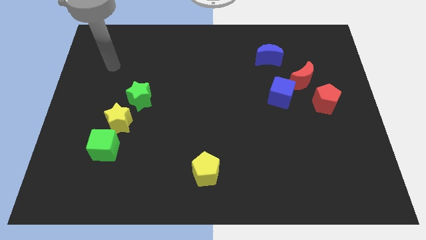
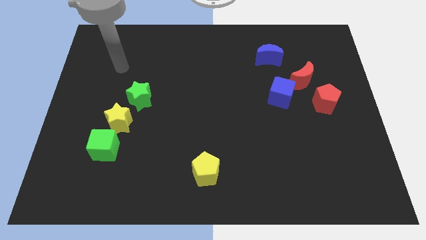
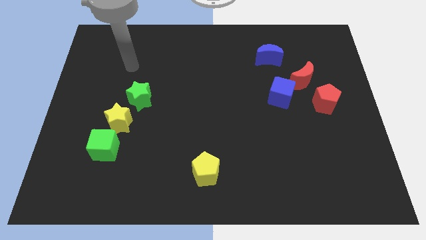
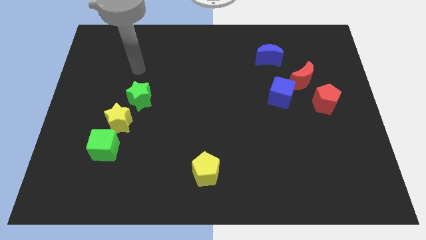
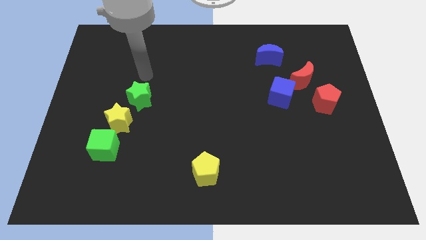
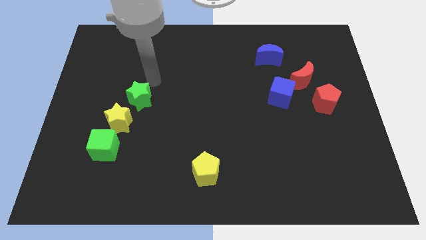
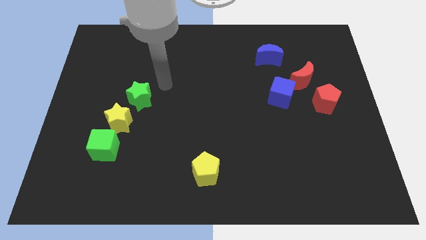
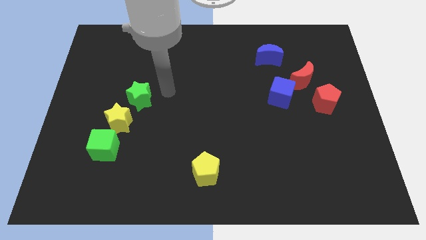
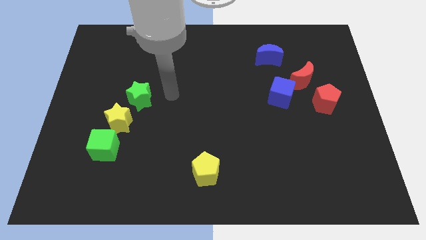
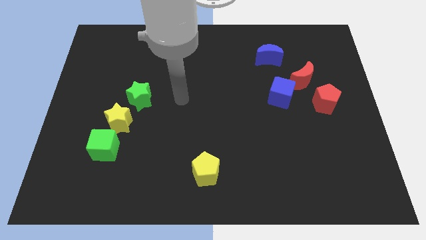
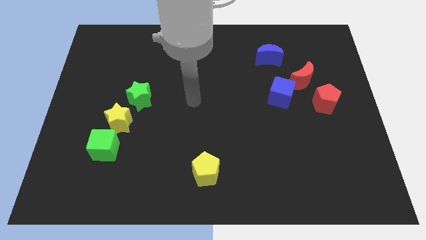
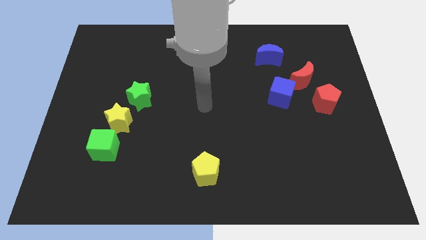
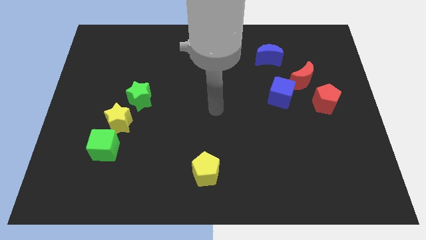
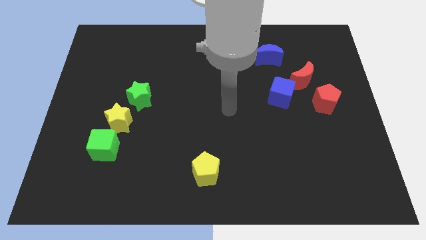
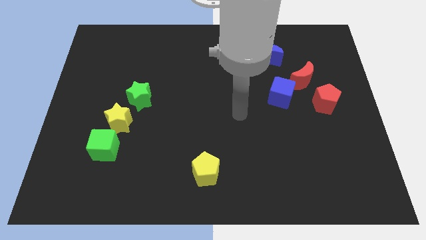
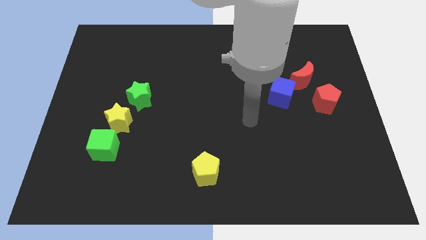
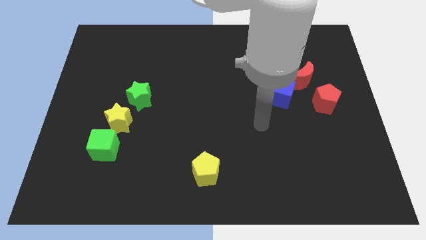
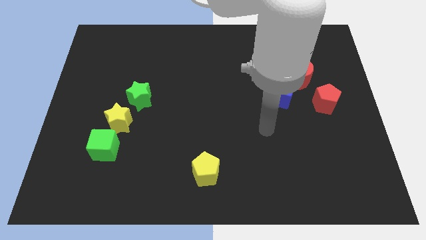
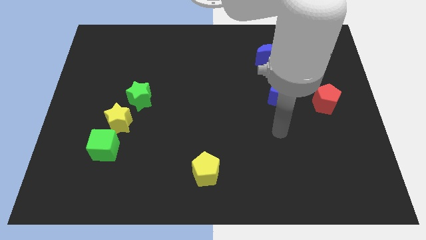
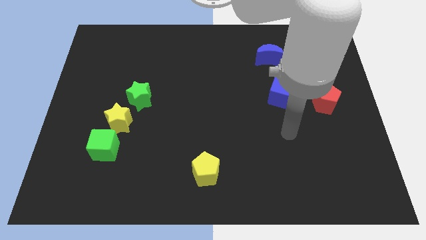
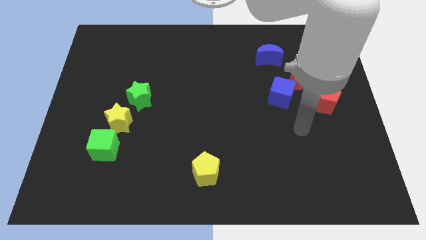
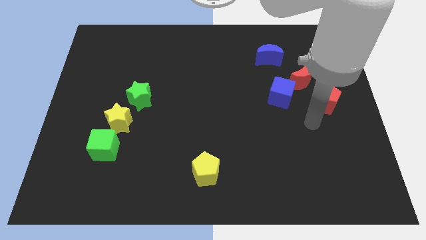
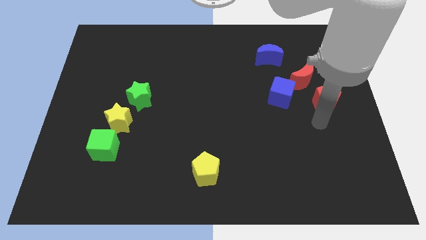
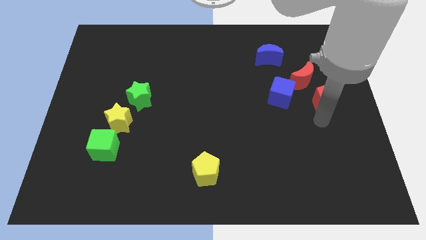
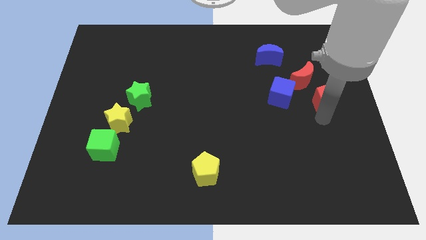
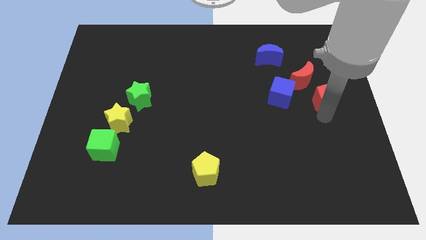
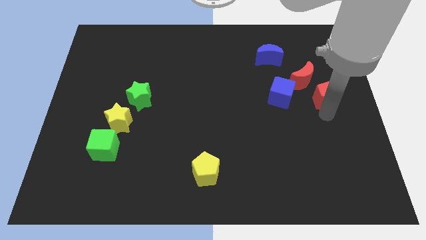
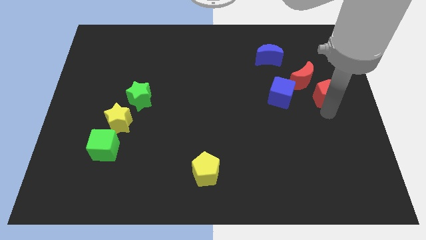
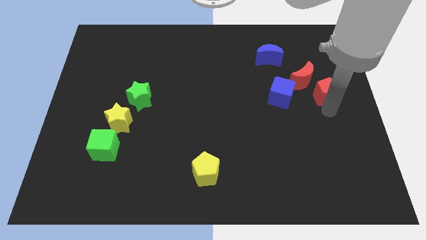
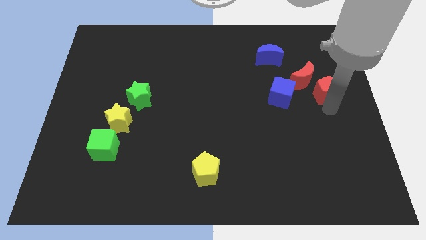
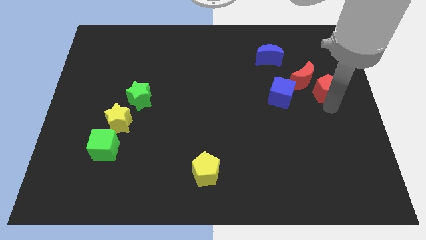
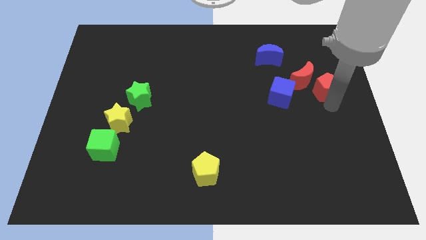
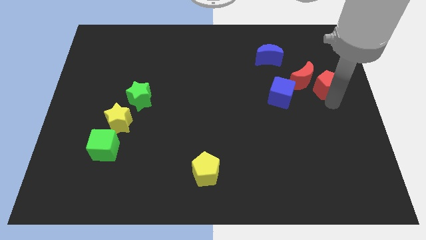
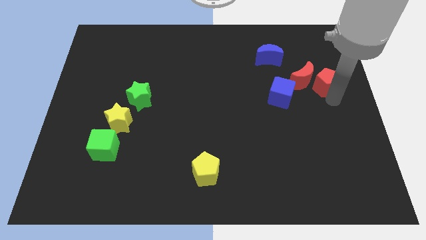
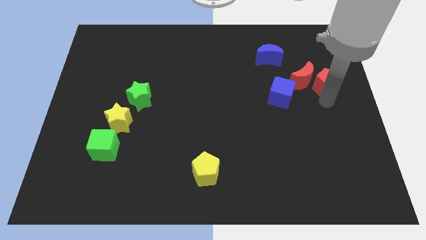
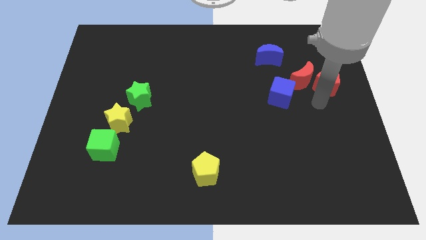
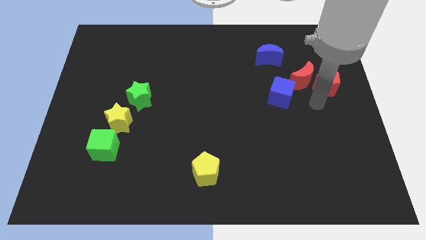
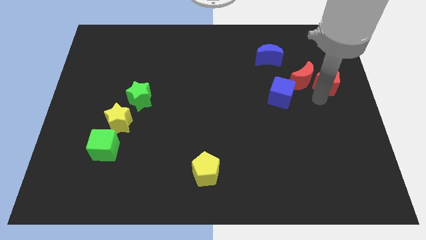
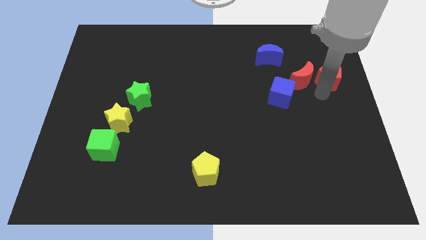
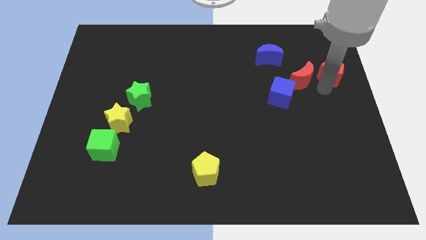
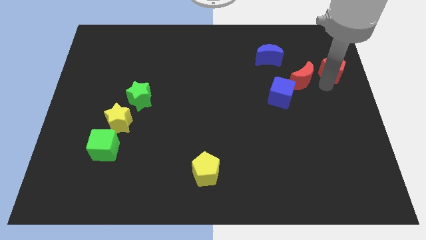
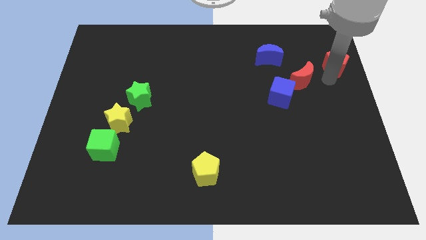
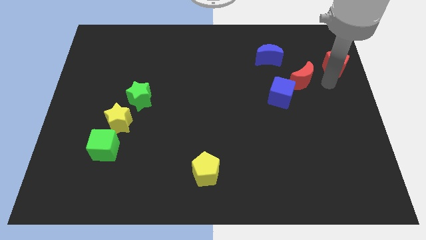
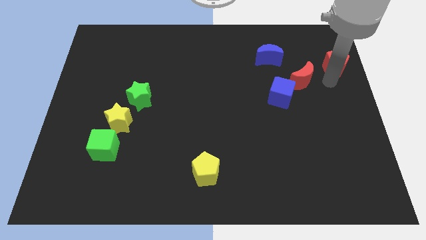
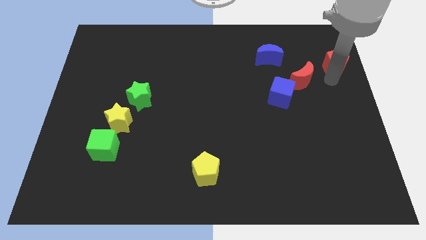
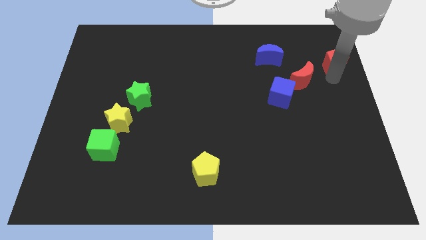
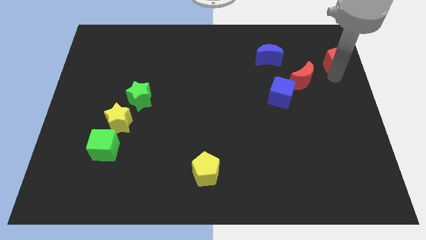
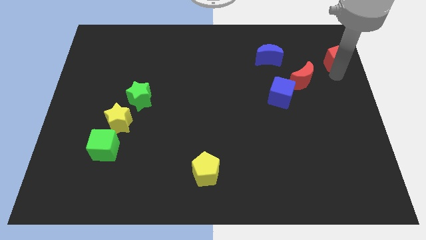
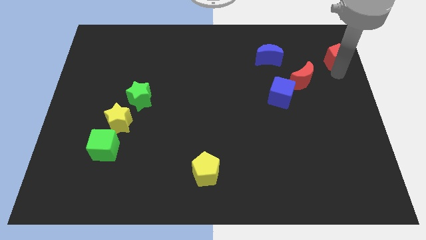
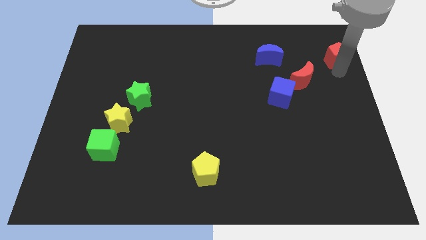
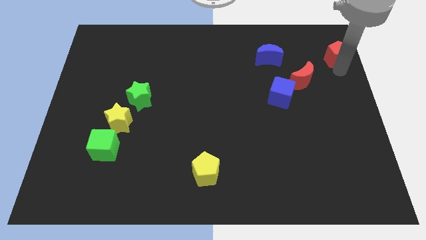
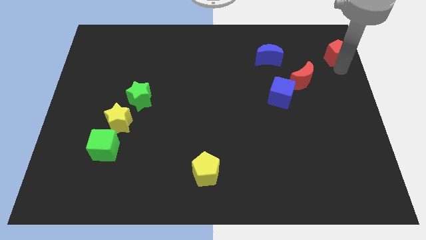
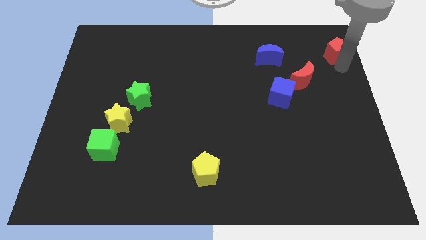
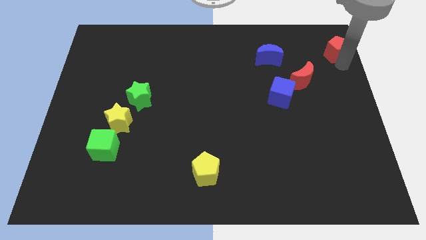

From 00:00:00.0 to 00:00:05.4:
push the red pentagon to the top right
